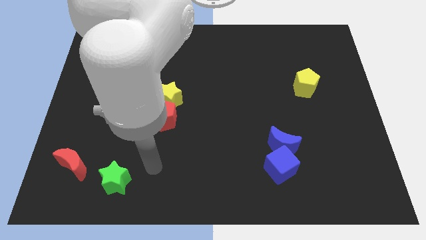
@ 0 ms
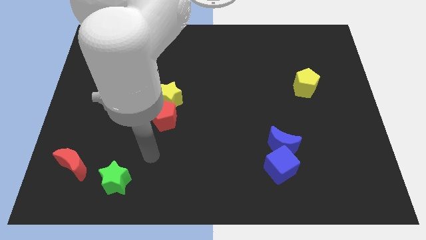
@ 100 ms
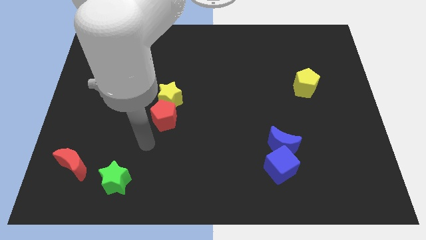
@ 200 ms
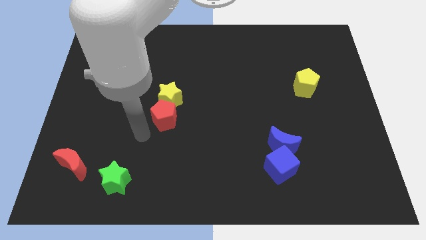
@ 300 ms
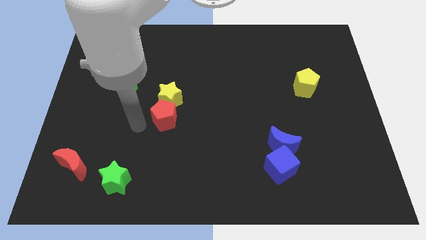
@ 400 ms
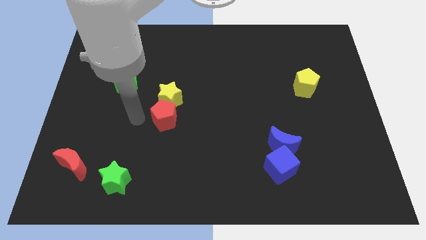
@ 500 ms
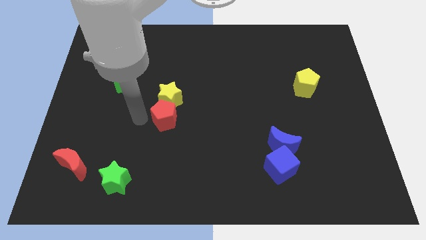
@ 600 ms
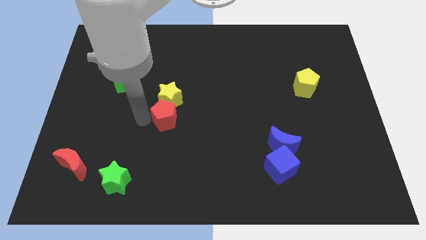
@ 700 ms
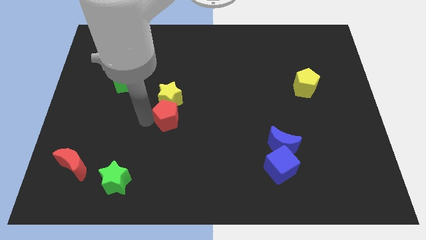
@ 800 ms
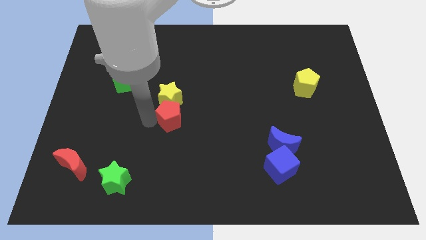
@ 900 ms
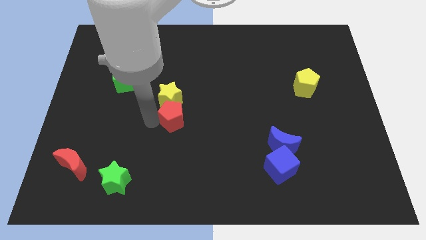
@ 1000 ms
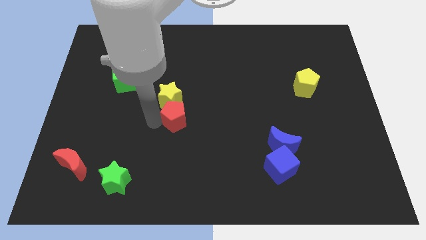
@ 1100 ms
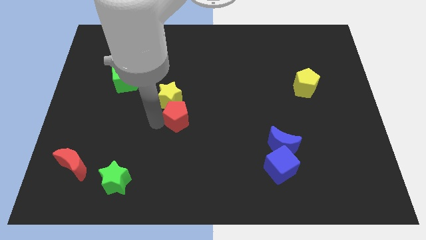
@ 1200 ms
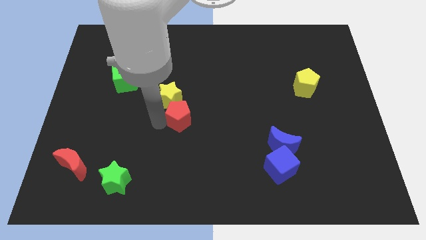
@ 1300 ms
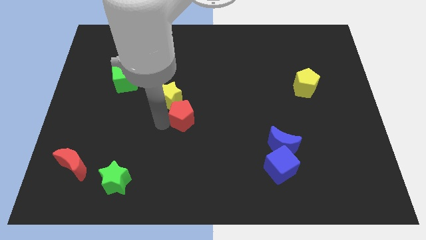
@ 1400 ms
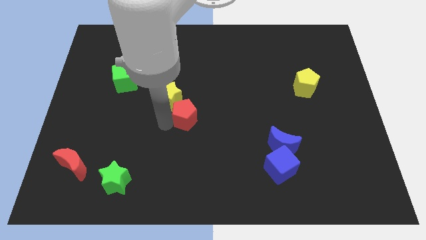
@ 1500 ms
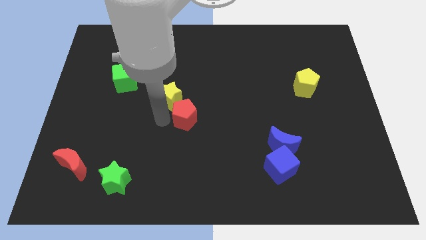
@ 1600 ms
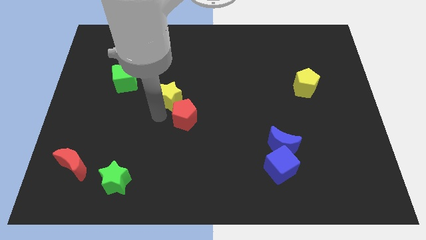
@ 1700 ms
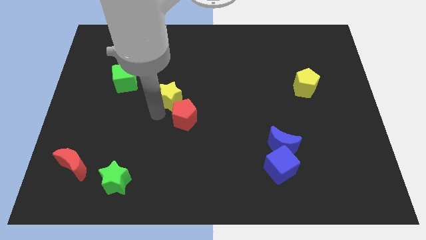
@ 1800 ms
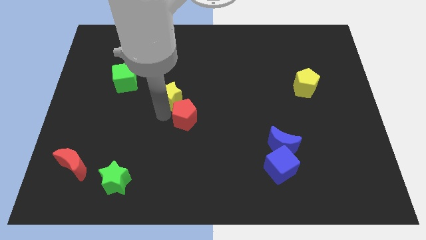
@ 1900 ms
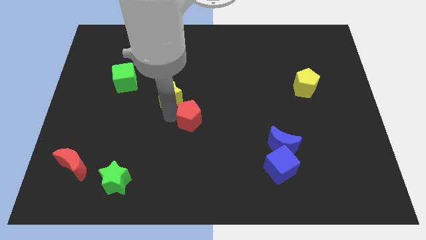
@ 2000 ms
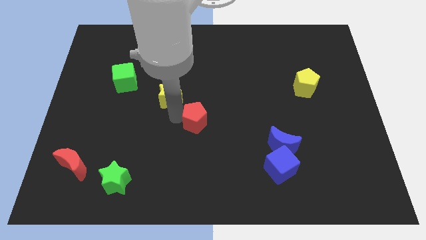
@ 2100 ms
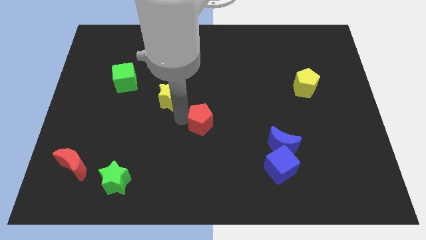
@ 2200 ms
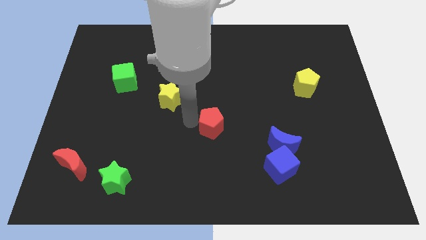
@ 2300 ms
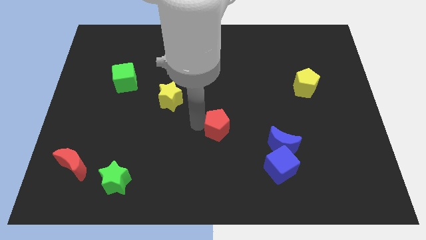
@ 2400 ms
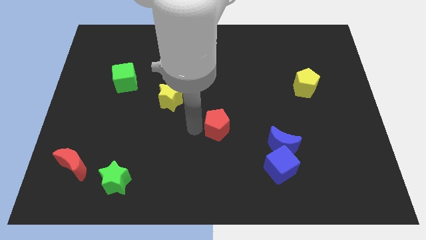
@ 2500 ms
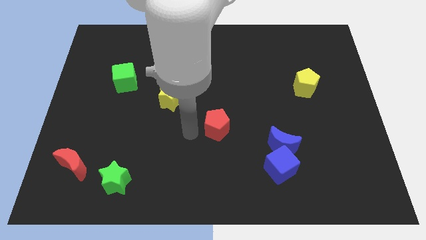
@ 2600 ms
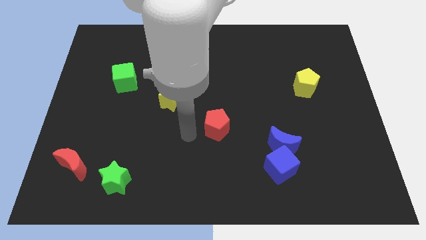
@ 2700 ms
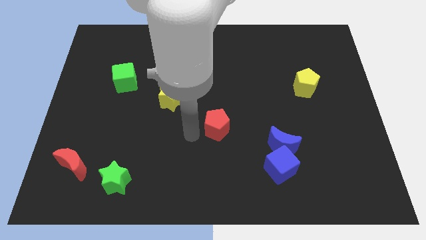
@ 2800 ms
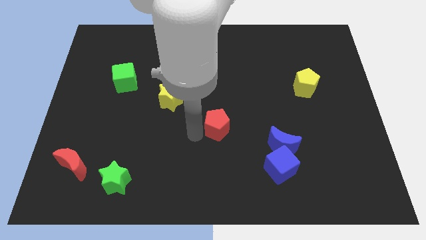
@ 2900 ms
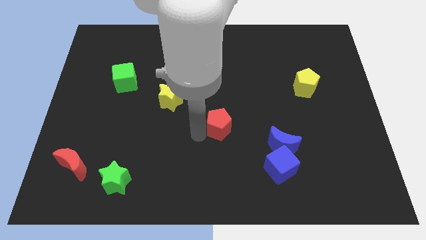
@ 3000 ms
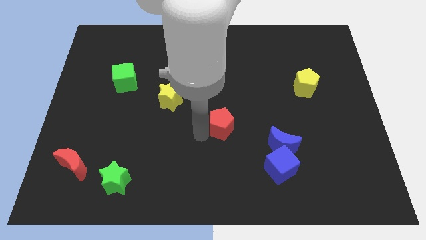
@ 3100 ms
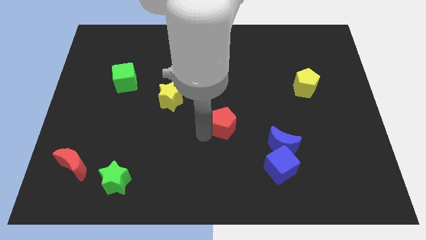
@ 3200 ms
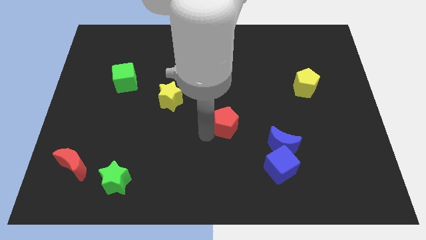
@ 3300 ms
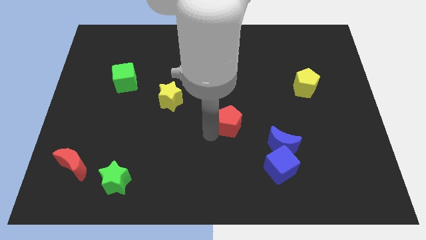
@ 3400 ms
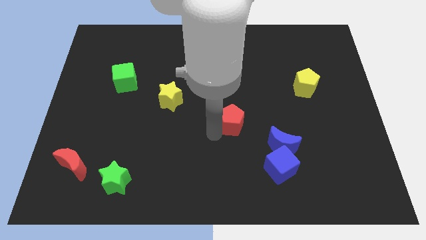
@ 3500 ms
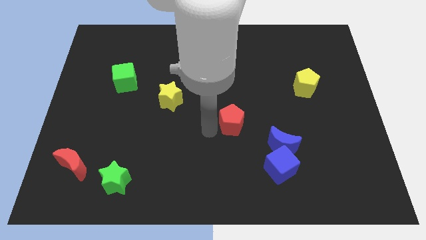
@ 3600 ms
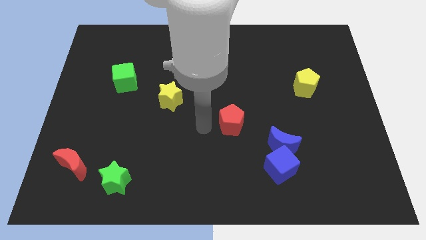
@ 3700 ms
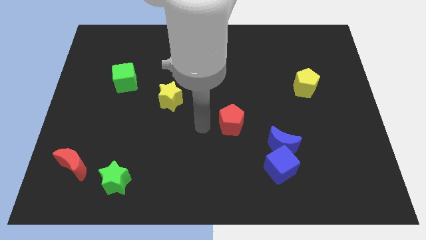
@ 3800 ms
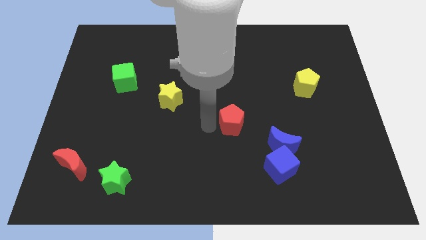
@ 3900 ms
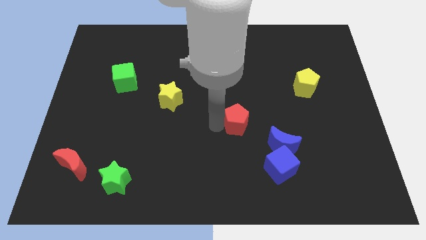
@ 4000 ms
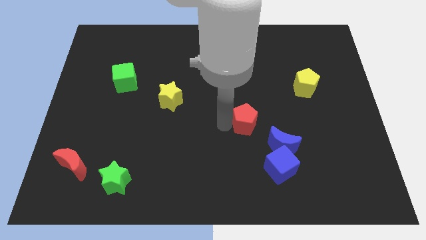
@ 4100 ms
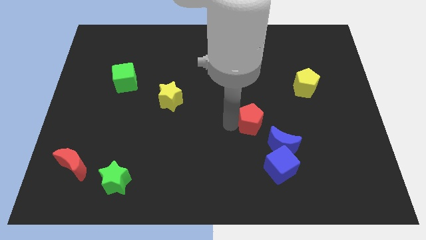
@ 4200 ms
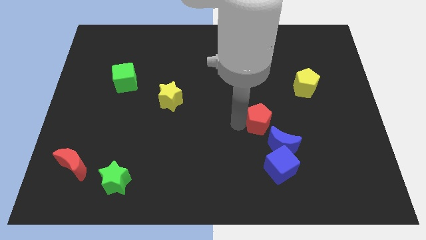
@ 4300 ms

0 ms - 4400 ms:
slide the red pentagon to the right

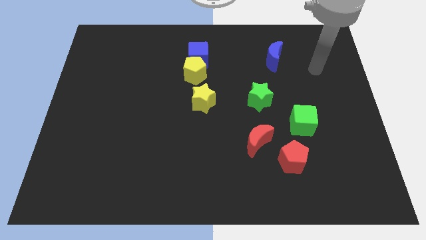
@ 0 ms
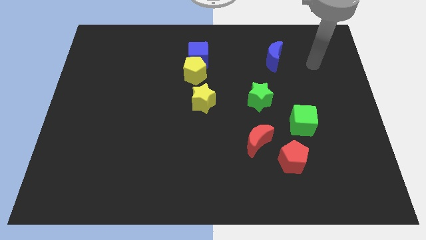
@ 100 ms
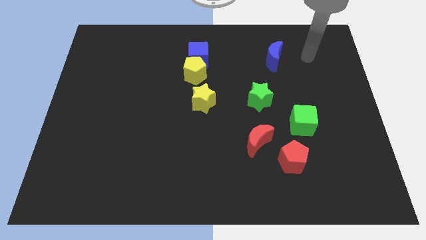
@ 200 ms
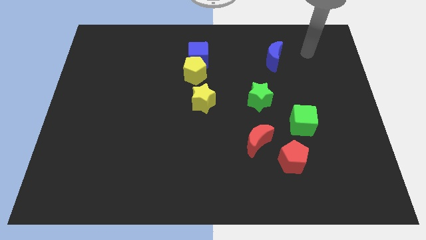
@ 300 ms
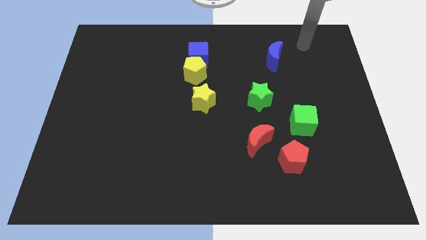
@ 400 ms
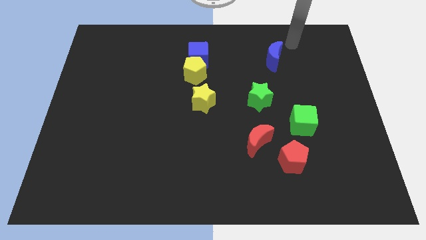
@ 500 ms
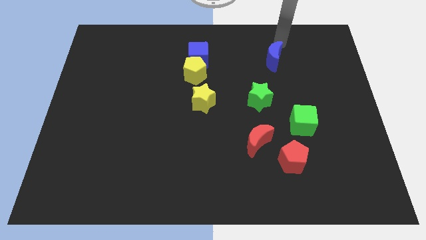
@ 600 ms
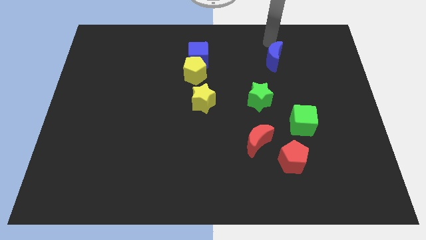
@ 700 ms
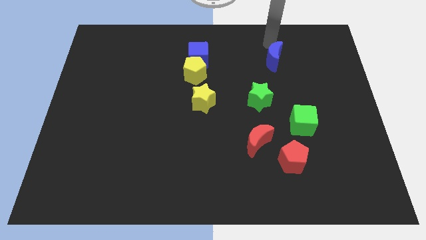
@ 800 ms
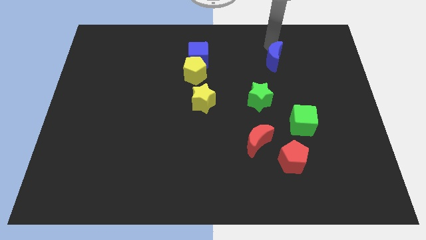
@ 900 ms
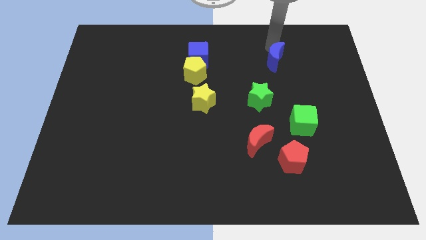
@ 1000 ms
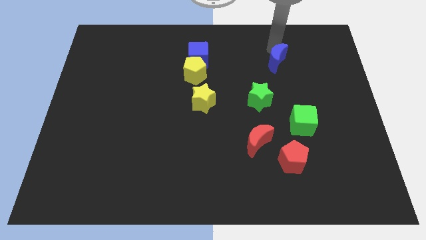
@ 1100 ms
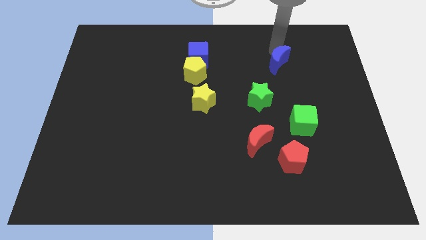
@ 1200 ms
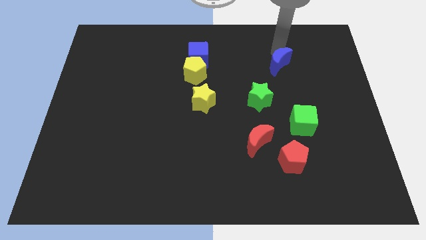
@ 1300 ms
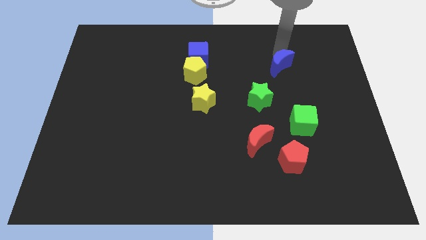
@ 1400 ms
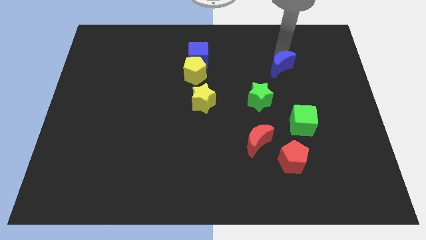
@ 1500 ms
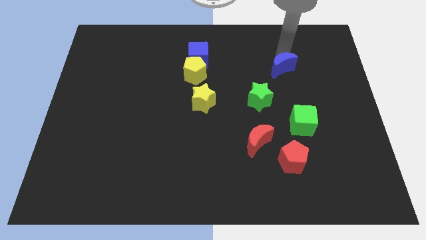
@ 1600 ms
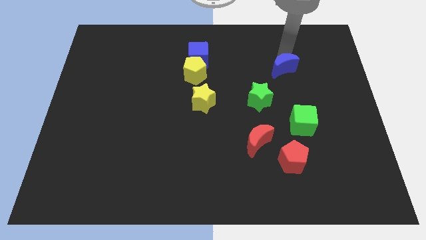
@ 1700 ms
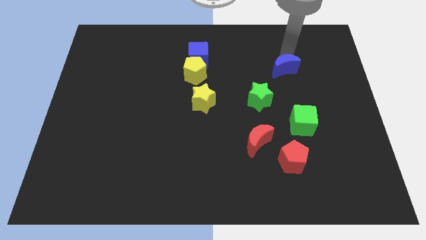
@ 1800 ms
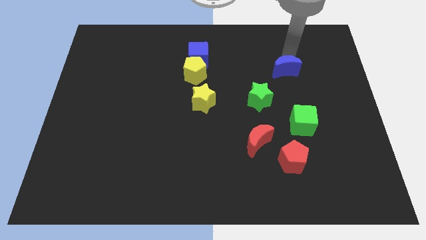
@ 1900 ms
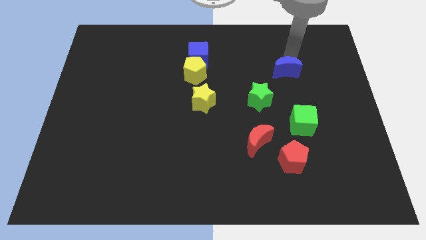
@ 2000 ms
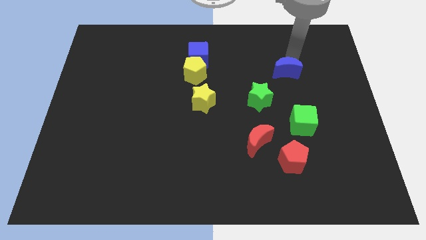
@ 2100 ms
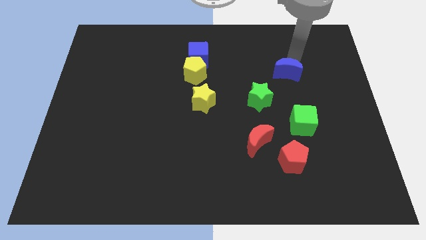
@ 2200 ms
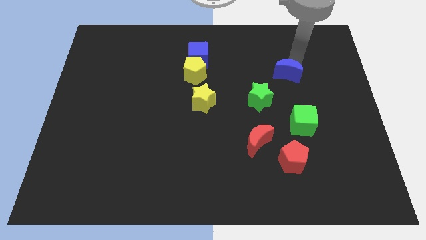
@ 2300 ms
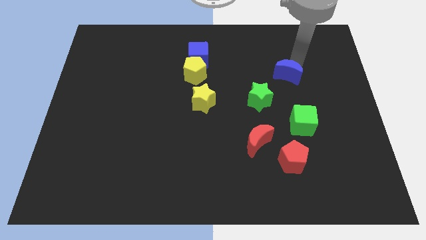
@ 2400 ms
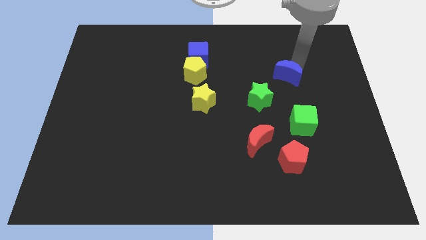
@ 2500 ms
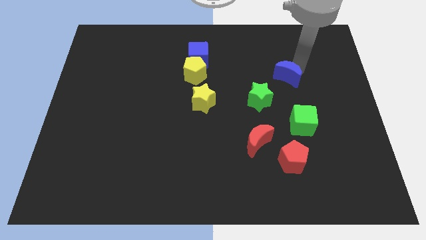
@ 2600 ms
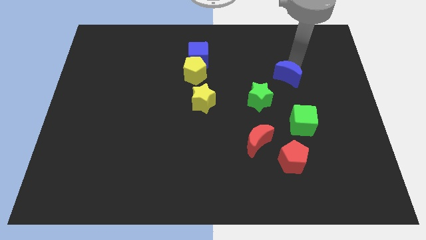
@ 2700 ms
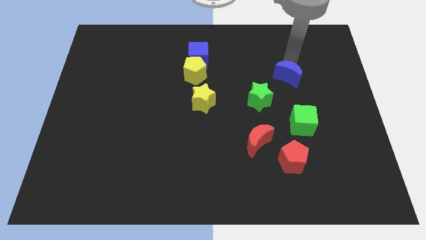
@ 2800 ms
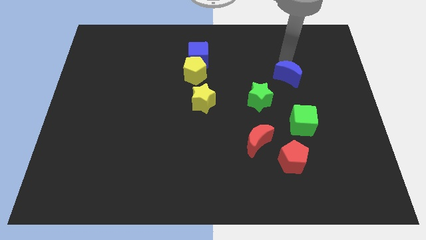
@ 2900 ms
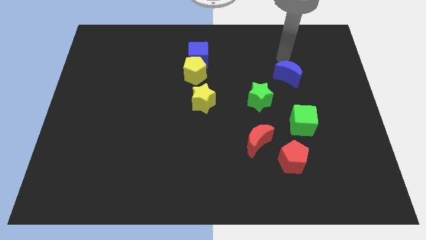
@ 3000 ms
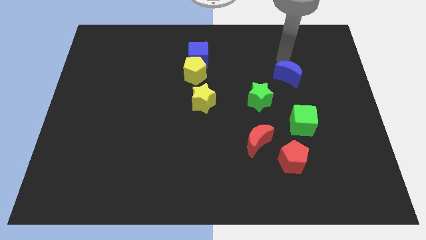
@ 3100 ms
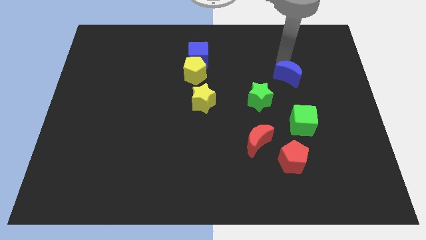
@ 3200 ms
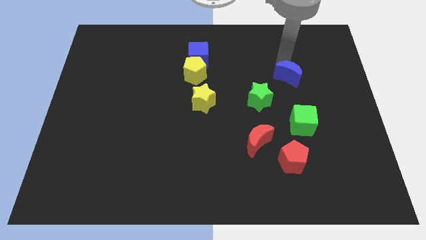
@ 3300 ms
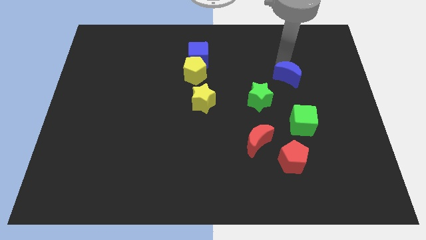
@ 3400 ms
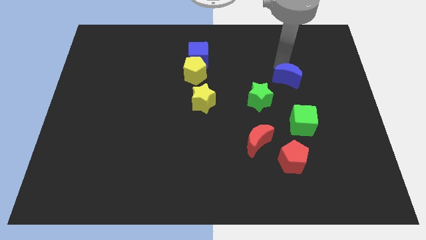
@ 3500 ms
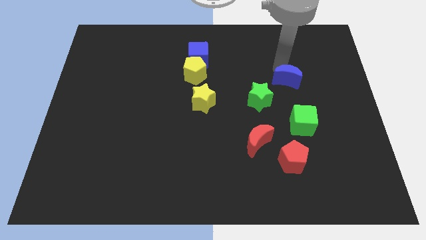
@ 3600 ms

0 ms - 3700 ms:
slightly slide the blue moon down
